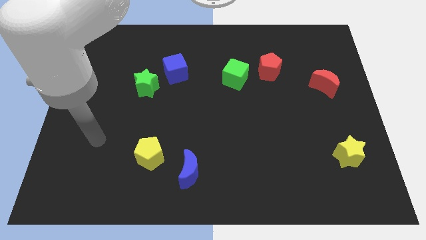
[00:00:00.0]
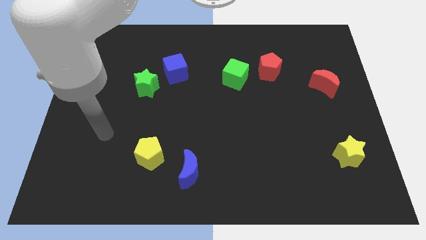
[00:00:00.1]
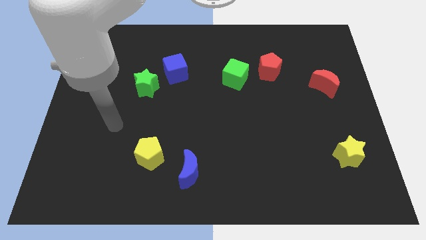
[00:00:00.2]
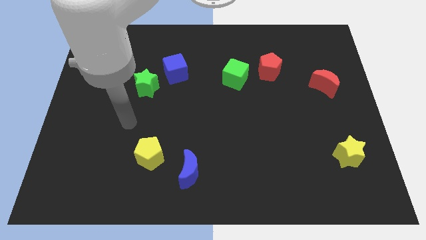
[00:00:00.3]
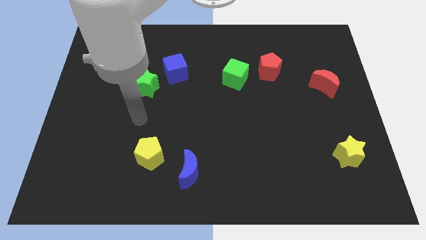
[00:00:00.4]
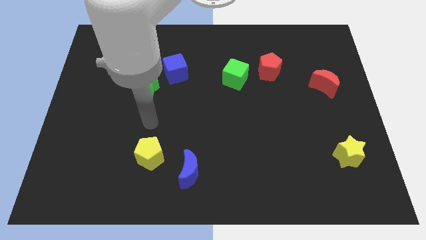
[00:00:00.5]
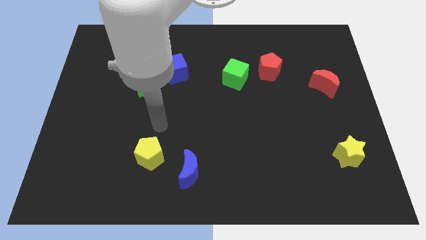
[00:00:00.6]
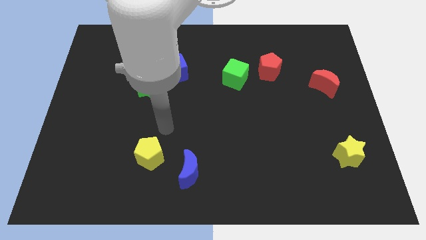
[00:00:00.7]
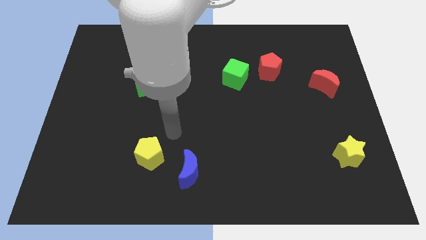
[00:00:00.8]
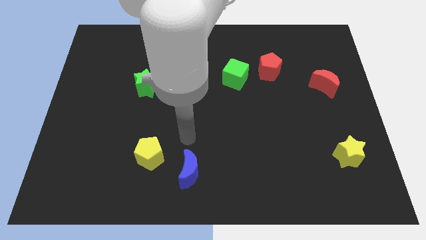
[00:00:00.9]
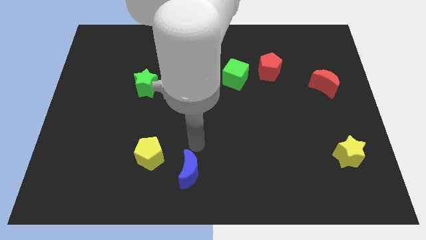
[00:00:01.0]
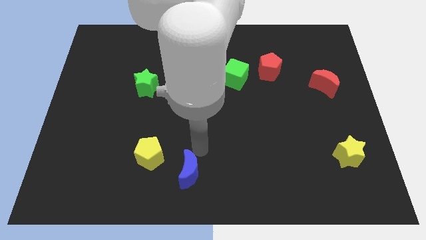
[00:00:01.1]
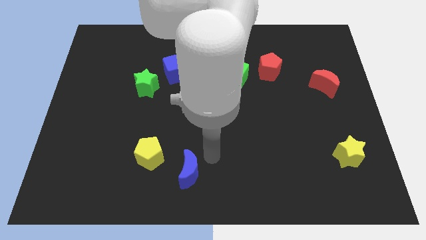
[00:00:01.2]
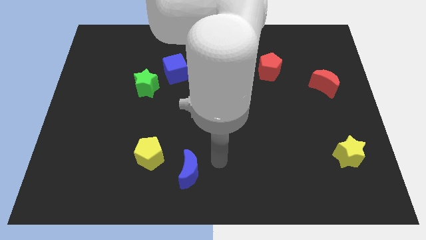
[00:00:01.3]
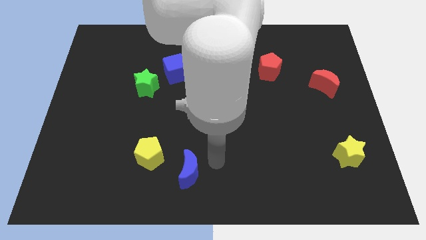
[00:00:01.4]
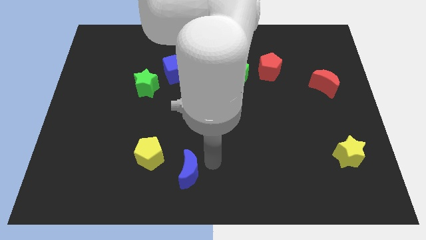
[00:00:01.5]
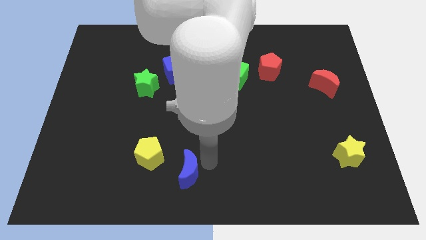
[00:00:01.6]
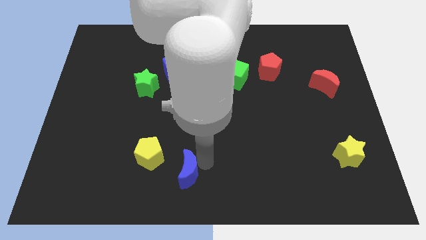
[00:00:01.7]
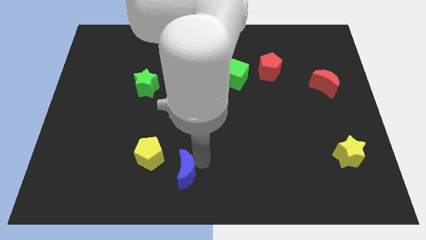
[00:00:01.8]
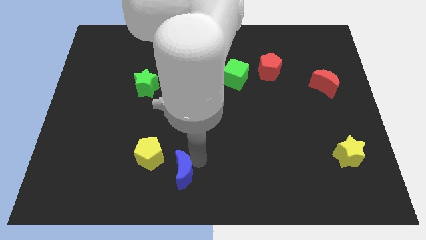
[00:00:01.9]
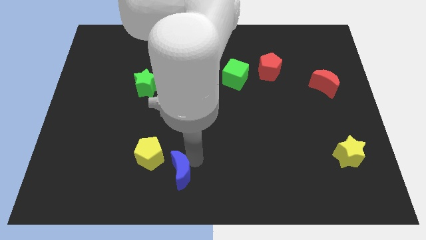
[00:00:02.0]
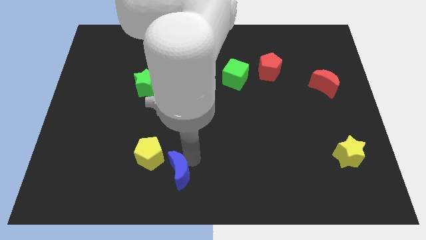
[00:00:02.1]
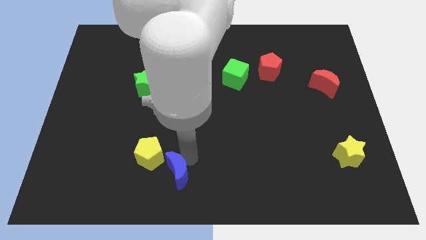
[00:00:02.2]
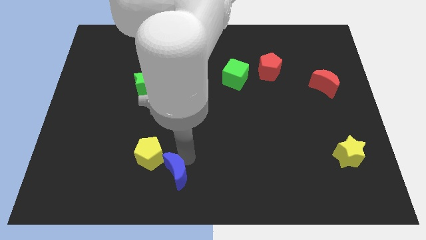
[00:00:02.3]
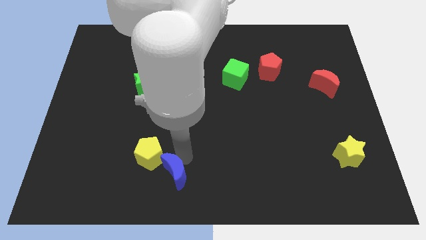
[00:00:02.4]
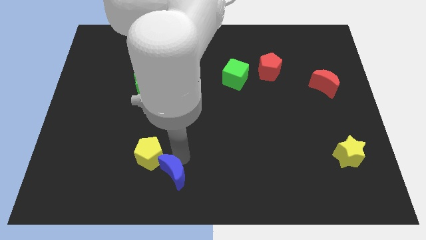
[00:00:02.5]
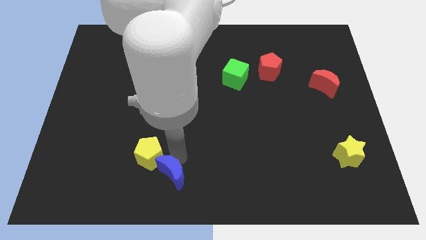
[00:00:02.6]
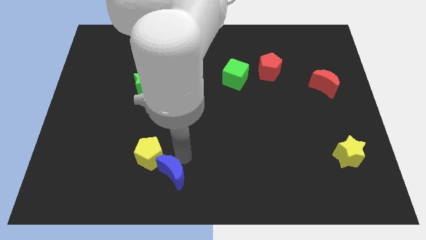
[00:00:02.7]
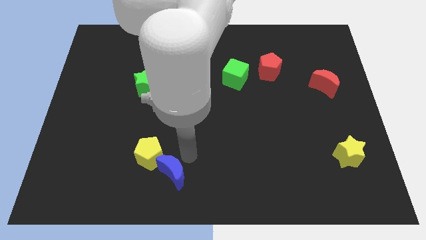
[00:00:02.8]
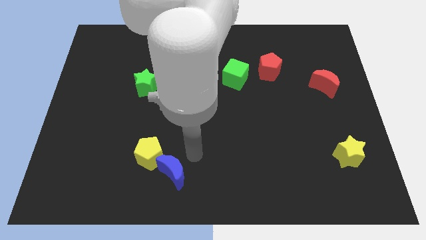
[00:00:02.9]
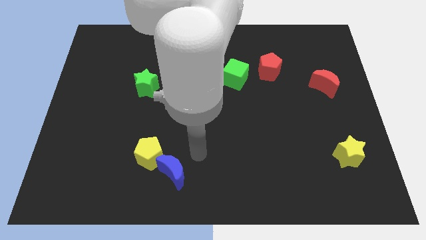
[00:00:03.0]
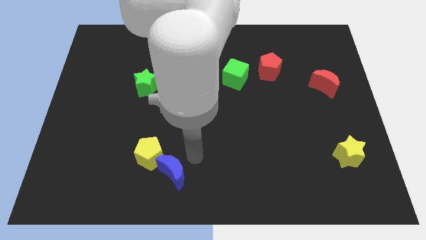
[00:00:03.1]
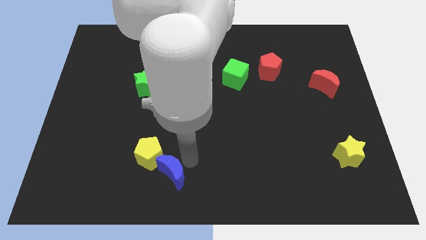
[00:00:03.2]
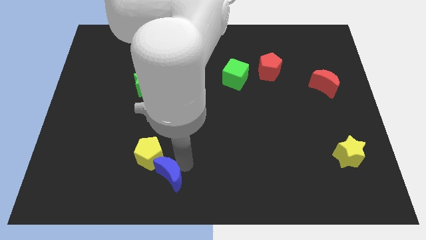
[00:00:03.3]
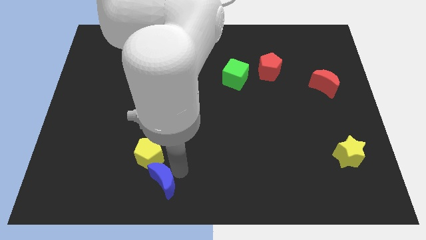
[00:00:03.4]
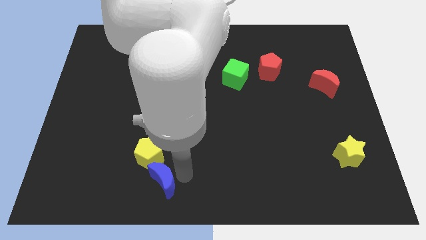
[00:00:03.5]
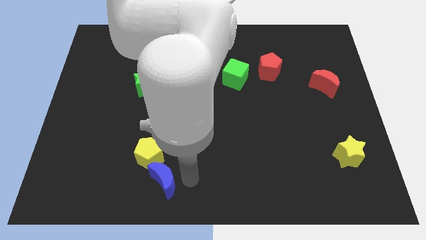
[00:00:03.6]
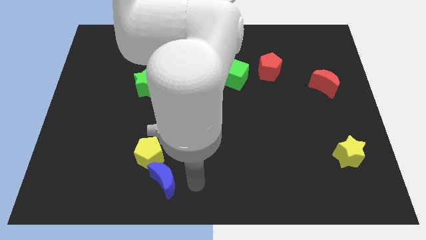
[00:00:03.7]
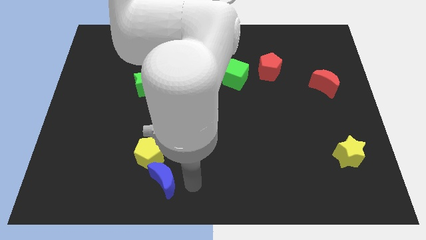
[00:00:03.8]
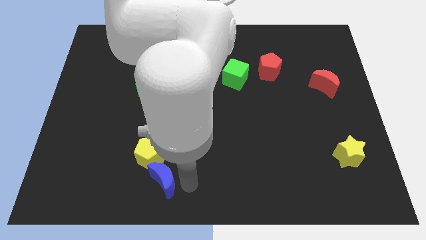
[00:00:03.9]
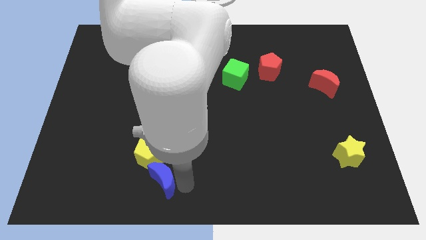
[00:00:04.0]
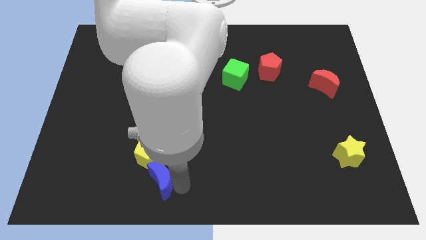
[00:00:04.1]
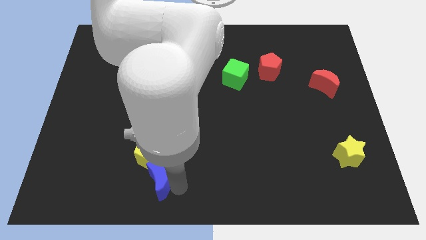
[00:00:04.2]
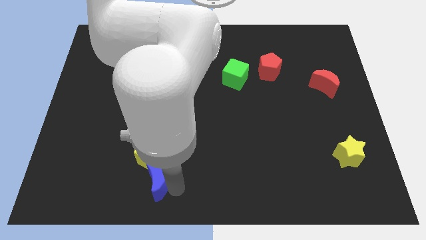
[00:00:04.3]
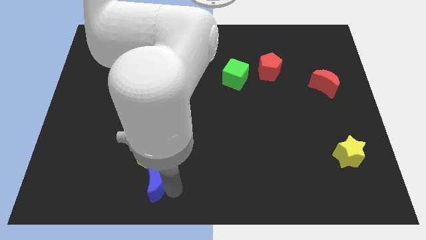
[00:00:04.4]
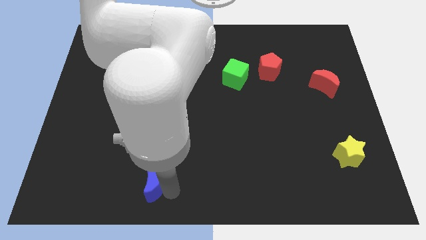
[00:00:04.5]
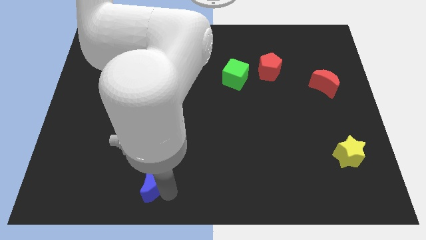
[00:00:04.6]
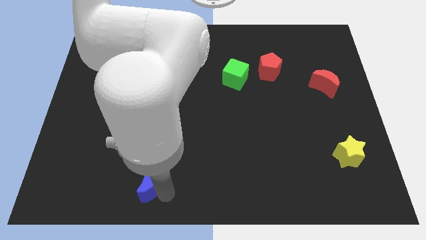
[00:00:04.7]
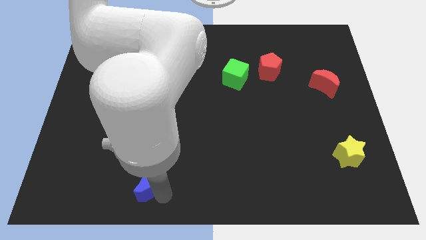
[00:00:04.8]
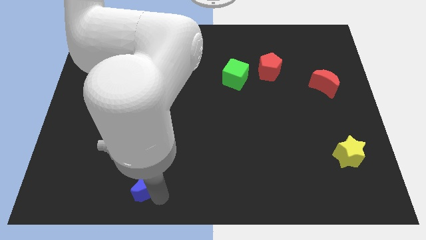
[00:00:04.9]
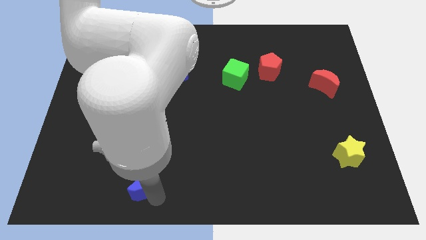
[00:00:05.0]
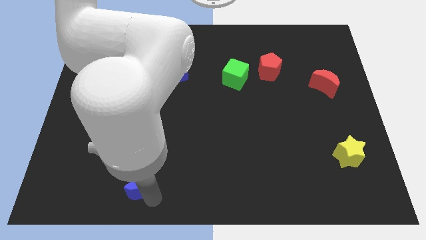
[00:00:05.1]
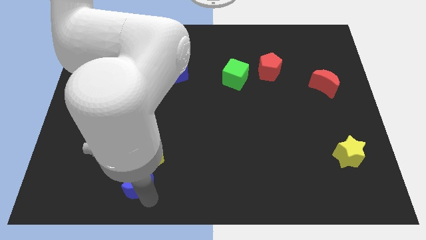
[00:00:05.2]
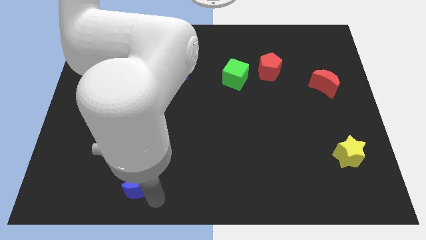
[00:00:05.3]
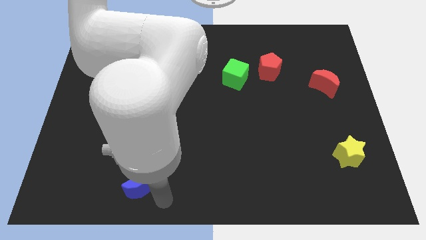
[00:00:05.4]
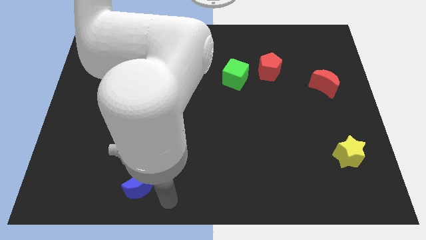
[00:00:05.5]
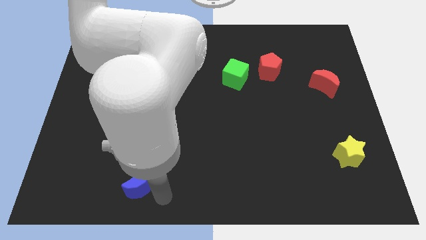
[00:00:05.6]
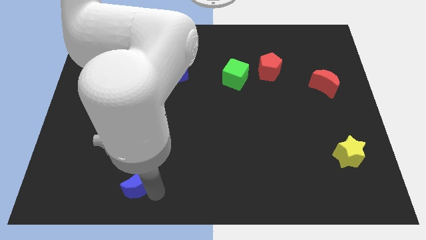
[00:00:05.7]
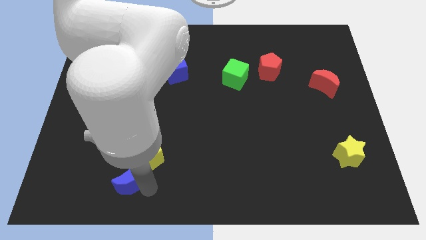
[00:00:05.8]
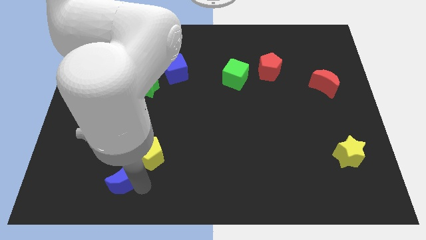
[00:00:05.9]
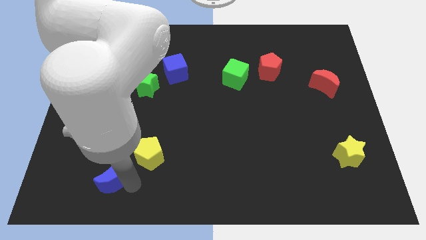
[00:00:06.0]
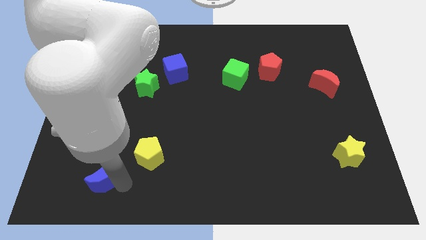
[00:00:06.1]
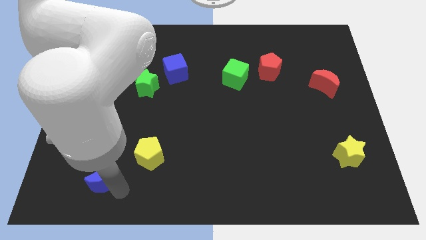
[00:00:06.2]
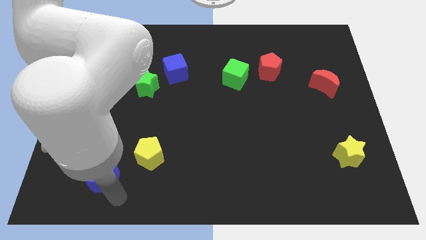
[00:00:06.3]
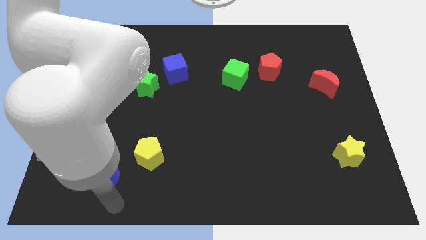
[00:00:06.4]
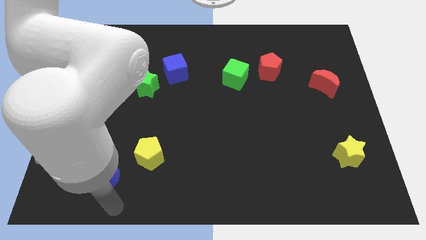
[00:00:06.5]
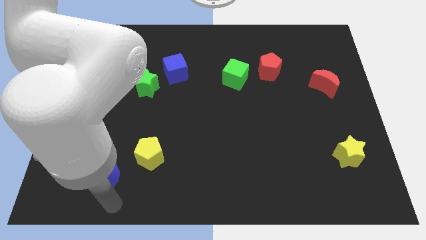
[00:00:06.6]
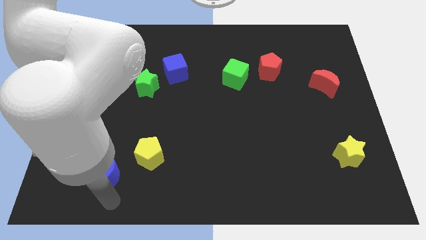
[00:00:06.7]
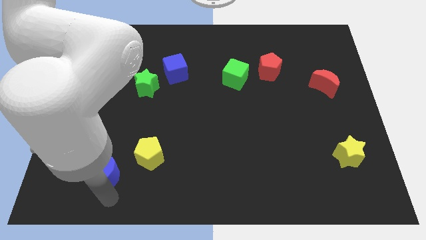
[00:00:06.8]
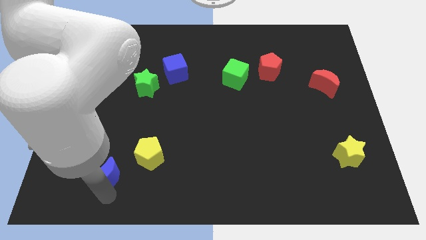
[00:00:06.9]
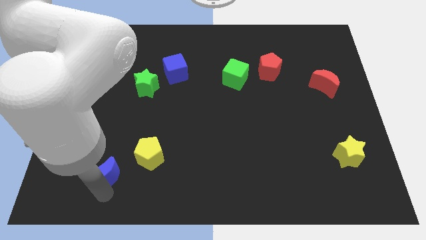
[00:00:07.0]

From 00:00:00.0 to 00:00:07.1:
move the blue moon just left of the yellow pentagon
